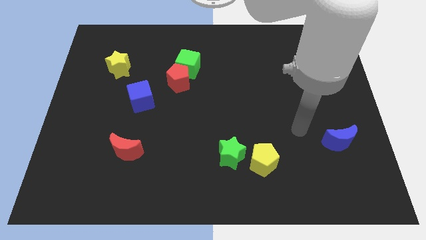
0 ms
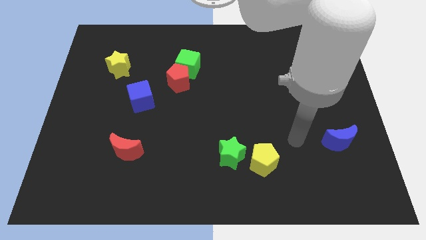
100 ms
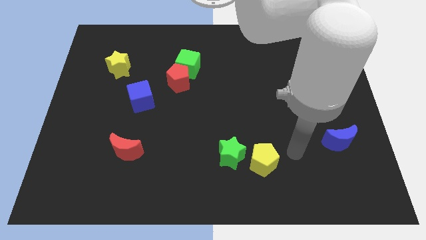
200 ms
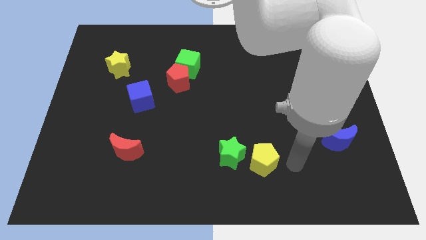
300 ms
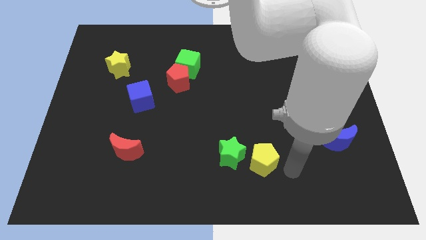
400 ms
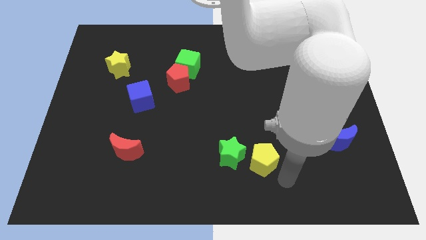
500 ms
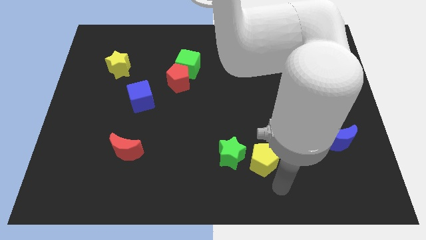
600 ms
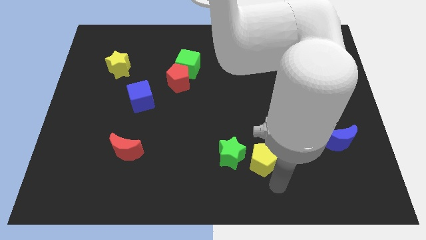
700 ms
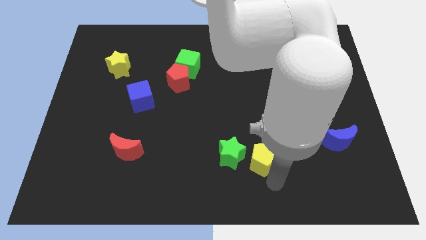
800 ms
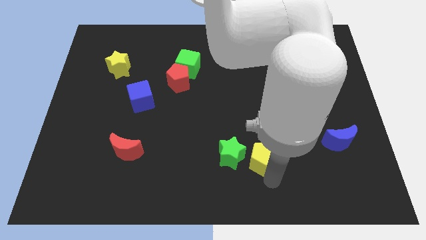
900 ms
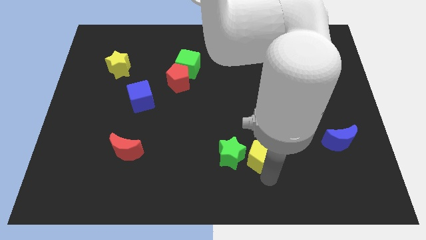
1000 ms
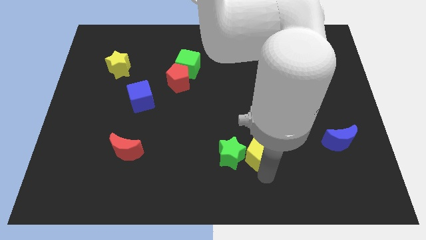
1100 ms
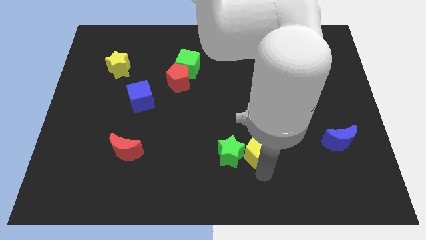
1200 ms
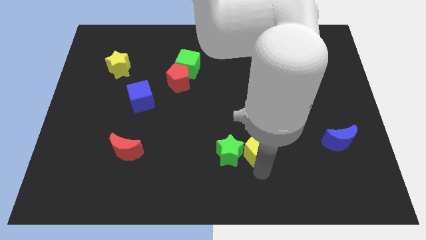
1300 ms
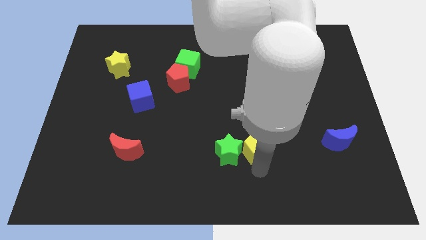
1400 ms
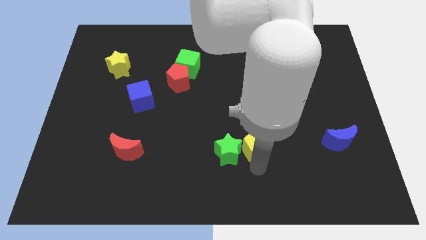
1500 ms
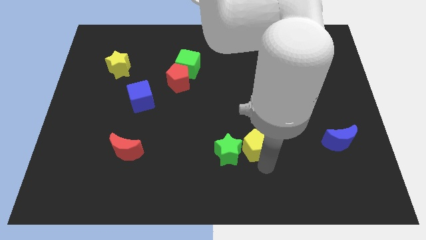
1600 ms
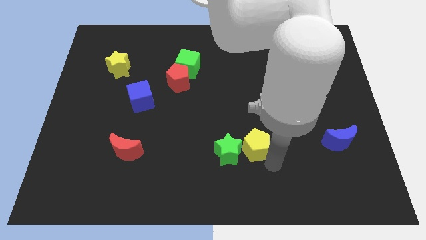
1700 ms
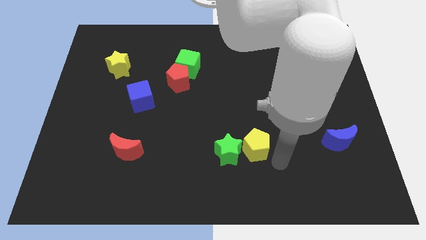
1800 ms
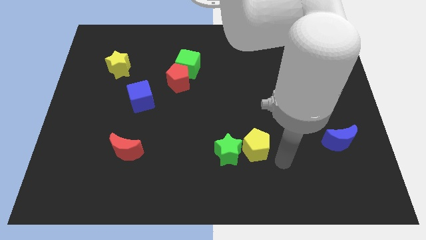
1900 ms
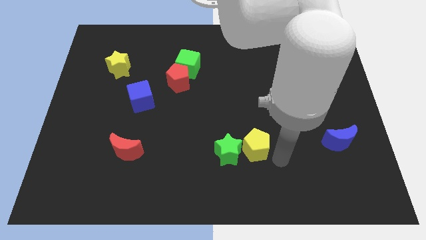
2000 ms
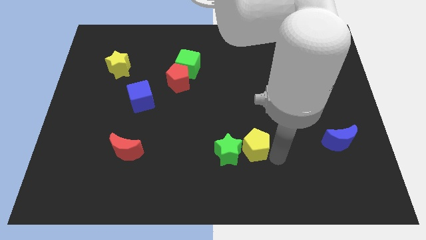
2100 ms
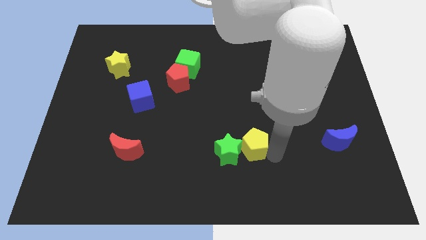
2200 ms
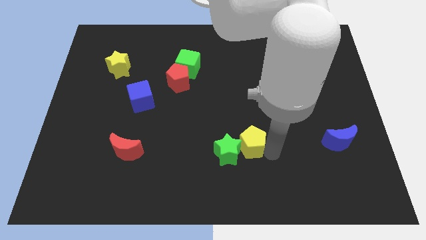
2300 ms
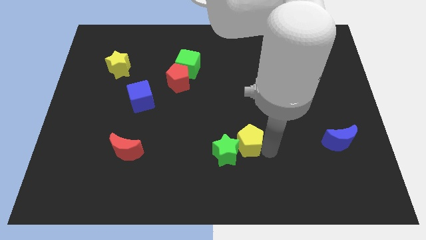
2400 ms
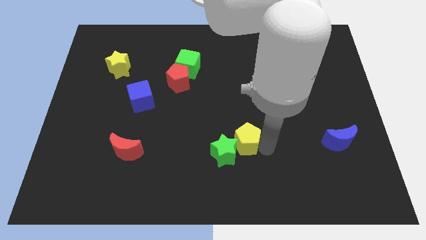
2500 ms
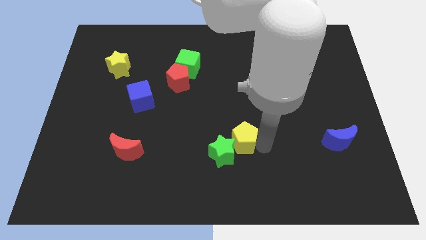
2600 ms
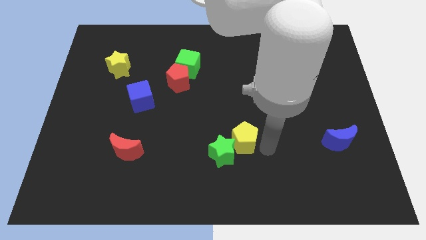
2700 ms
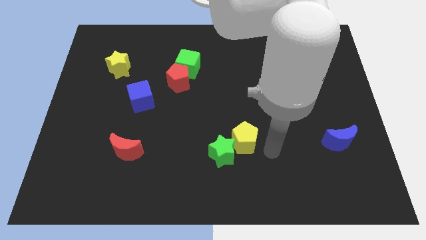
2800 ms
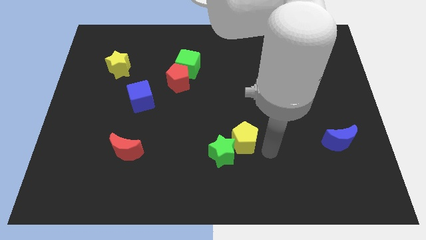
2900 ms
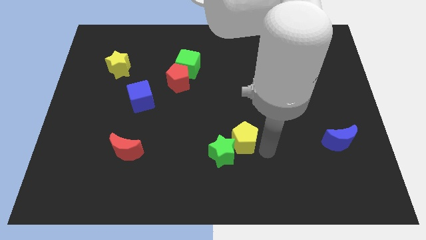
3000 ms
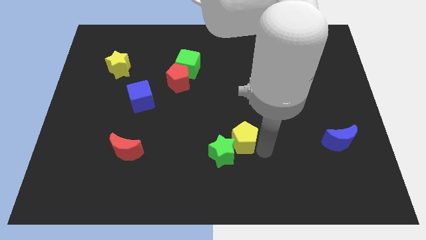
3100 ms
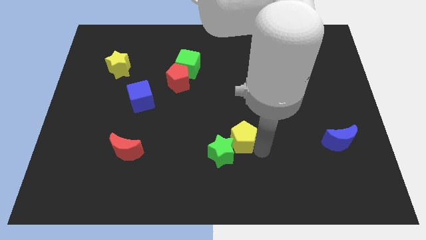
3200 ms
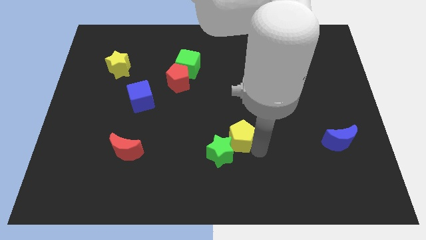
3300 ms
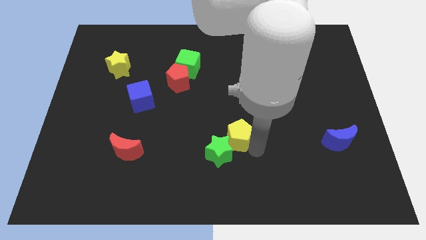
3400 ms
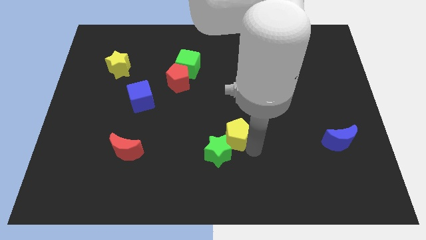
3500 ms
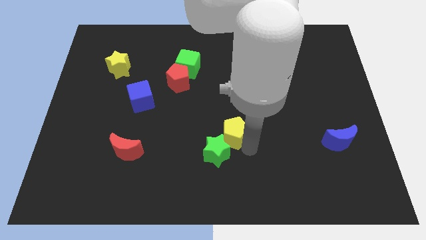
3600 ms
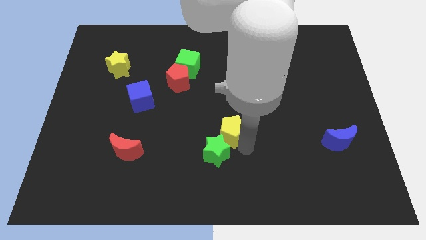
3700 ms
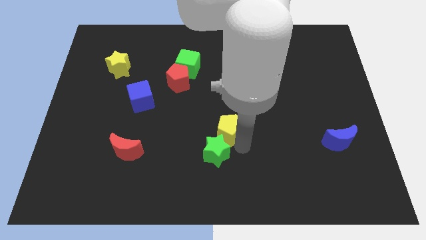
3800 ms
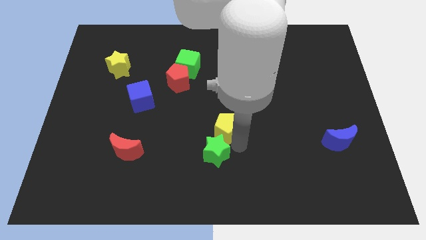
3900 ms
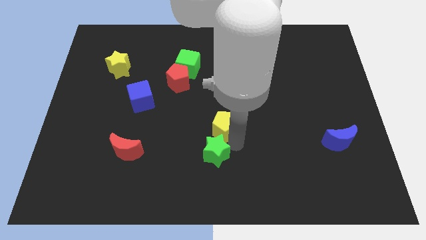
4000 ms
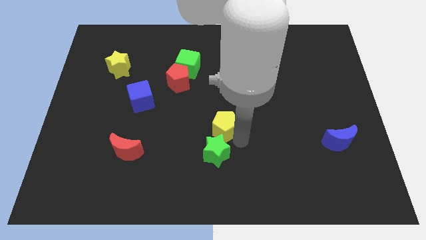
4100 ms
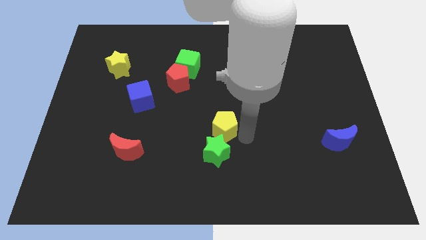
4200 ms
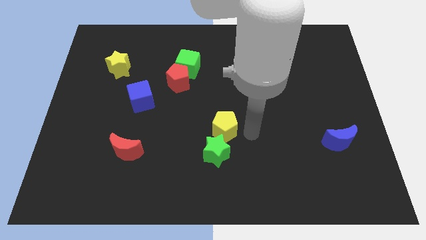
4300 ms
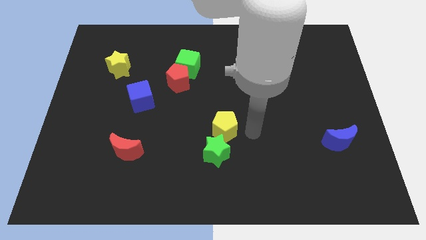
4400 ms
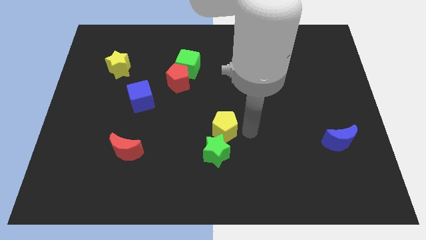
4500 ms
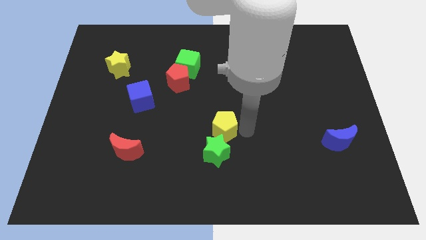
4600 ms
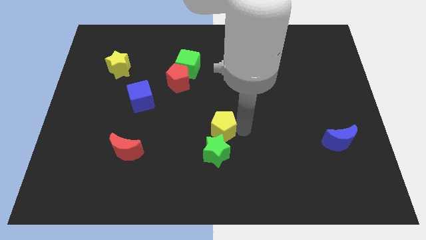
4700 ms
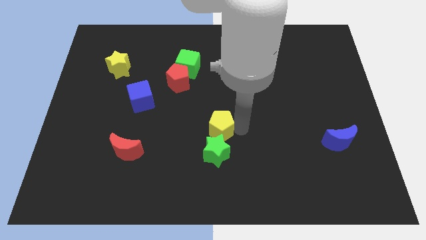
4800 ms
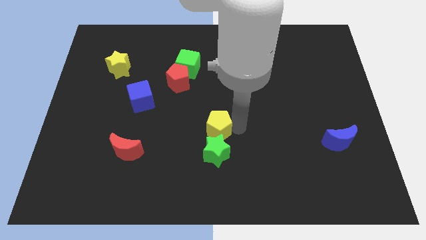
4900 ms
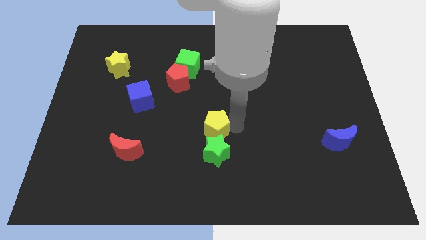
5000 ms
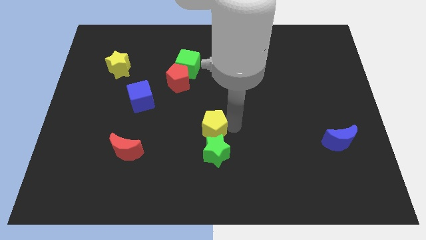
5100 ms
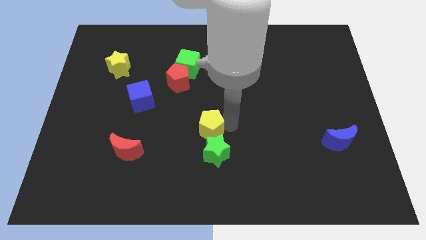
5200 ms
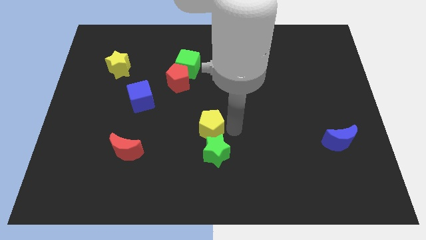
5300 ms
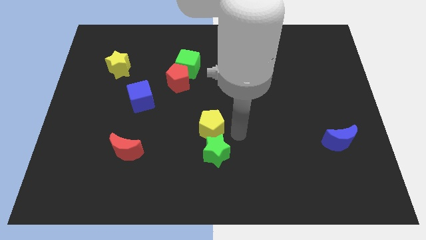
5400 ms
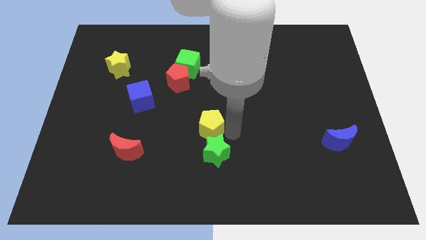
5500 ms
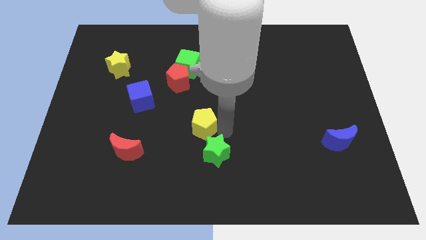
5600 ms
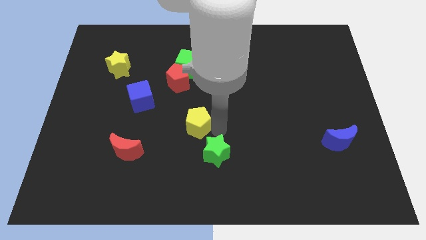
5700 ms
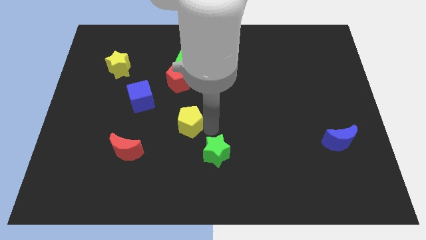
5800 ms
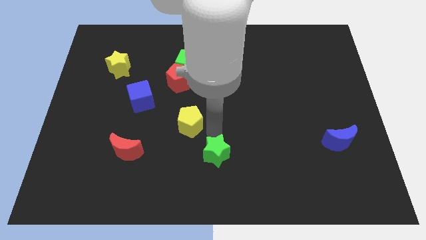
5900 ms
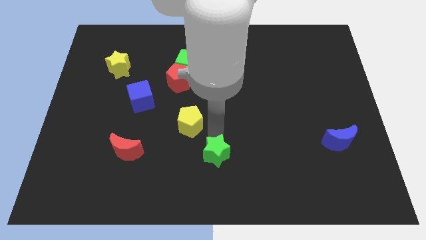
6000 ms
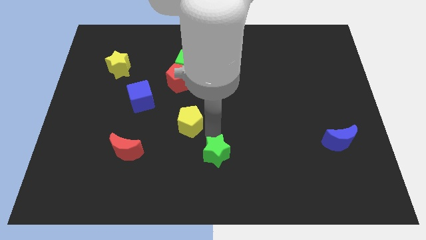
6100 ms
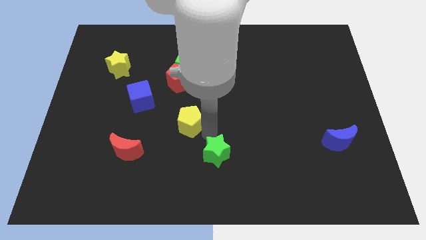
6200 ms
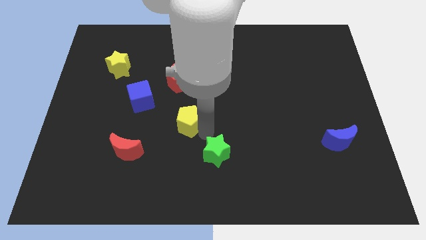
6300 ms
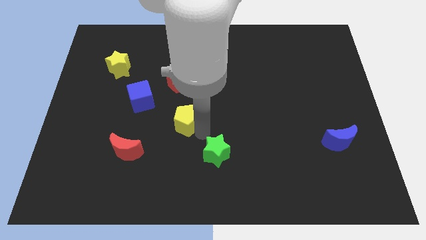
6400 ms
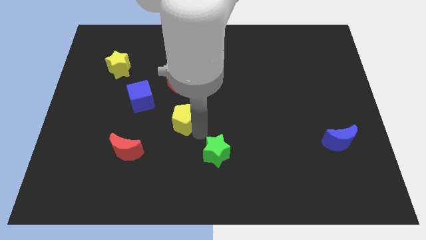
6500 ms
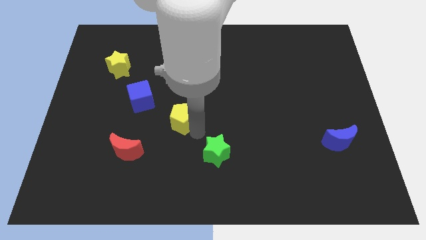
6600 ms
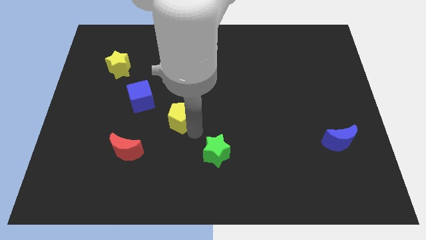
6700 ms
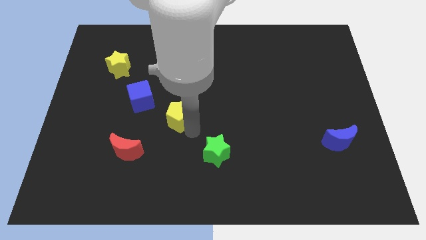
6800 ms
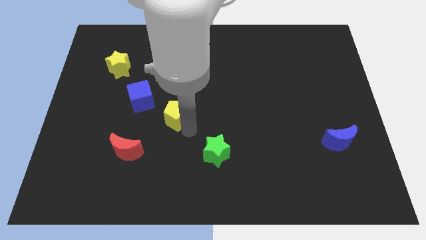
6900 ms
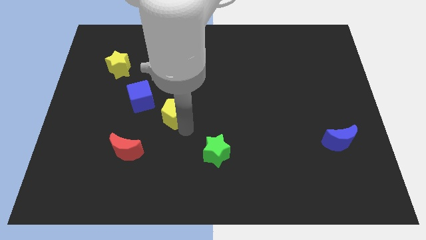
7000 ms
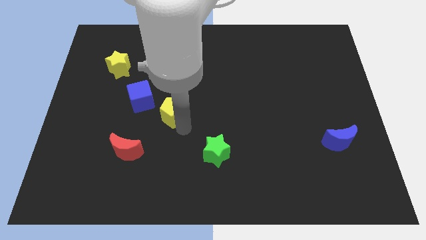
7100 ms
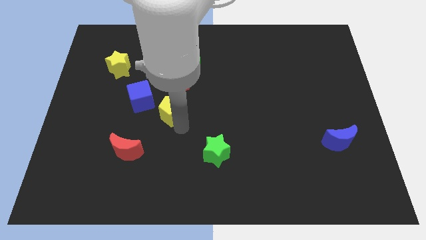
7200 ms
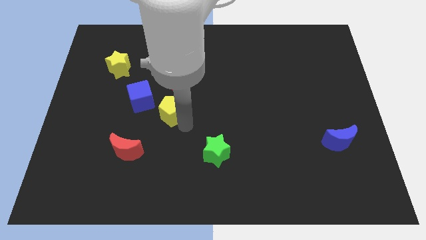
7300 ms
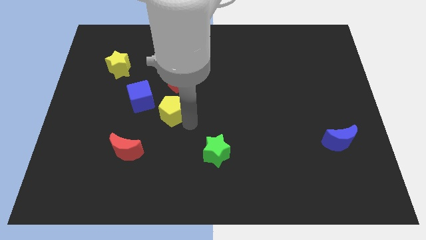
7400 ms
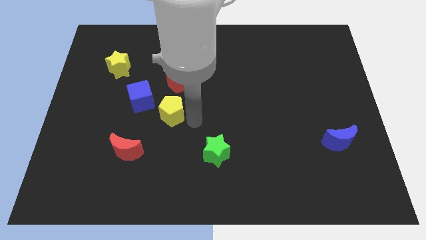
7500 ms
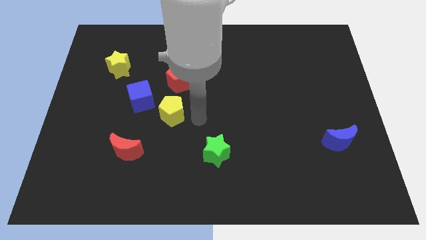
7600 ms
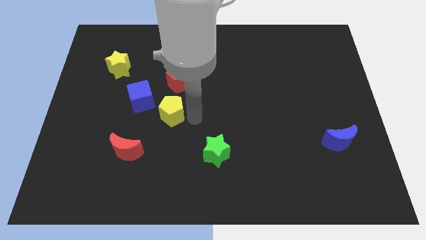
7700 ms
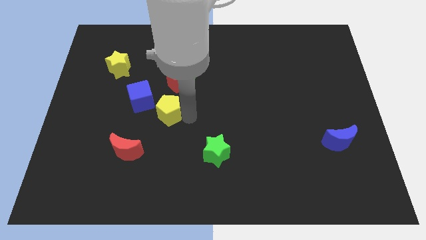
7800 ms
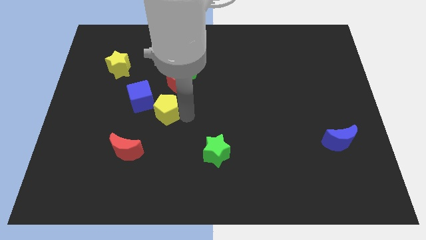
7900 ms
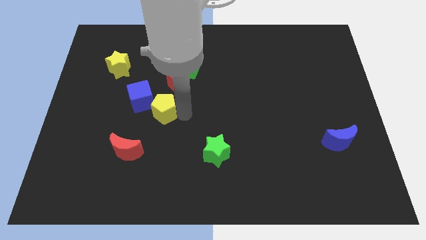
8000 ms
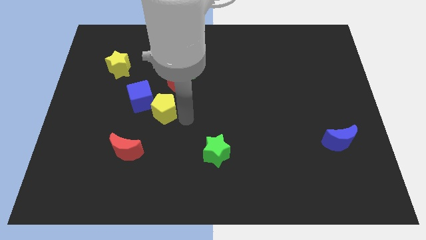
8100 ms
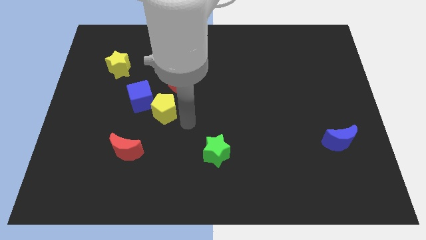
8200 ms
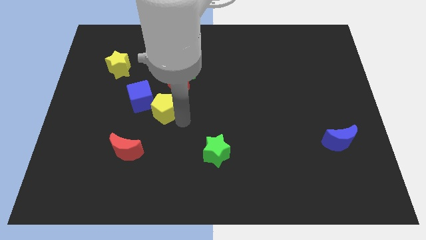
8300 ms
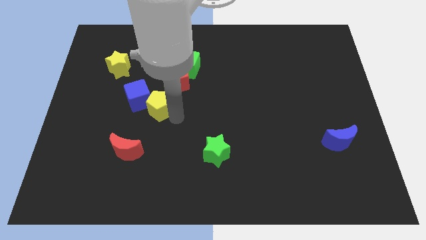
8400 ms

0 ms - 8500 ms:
move the yellow pentagon next to the blue cube
